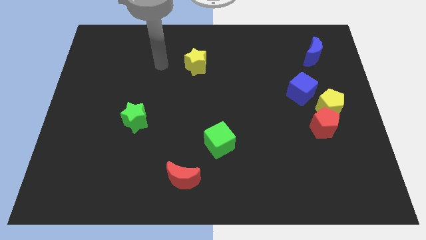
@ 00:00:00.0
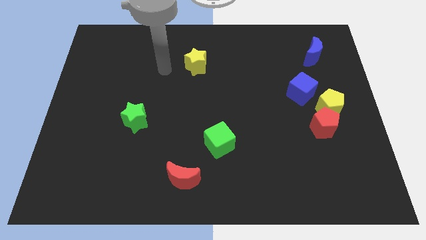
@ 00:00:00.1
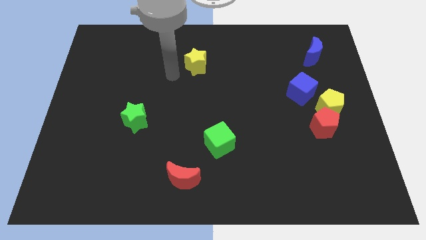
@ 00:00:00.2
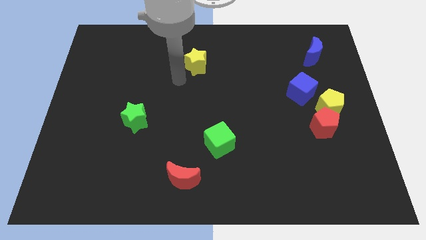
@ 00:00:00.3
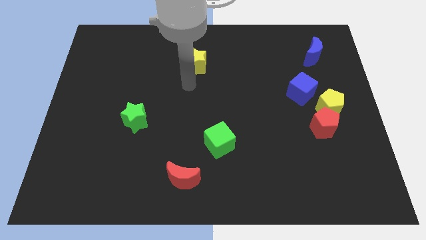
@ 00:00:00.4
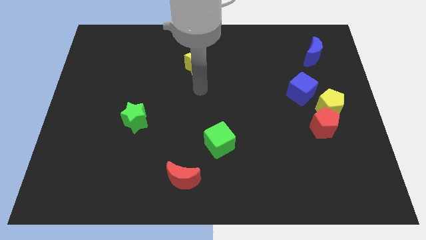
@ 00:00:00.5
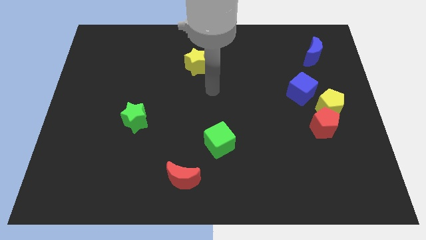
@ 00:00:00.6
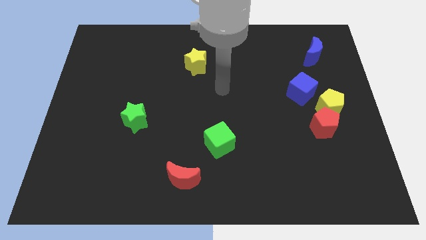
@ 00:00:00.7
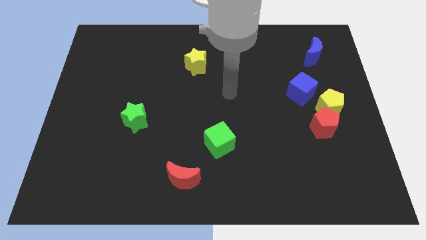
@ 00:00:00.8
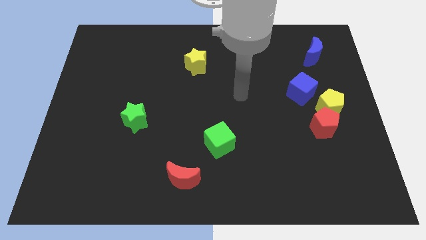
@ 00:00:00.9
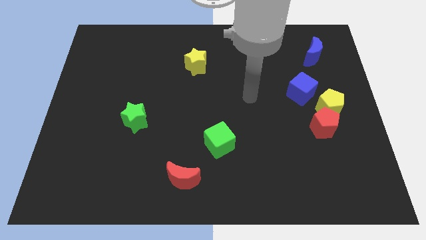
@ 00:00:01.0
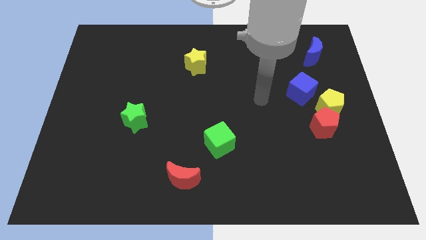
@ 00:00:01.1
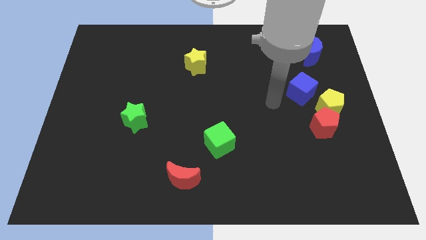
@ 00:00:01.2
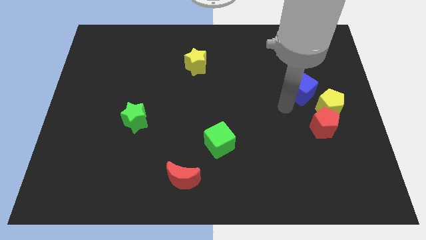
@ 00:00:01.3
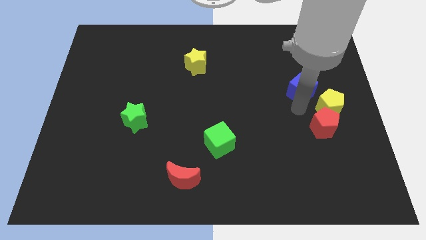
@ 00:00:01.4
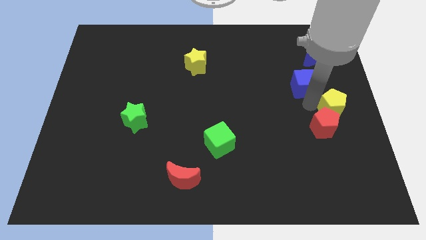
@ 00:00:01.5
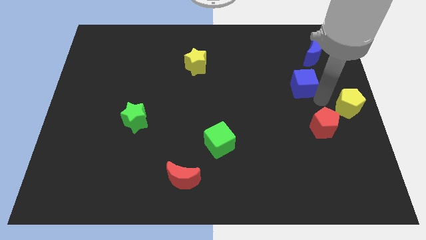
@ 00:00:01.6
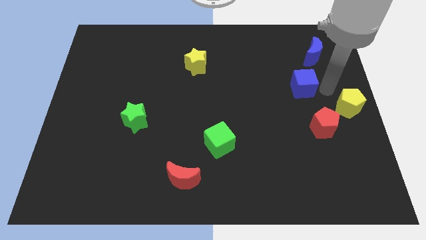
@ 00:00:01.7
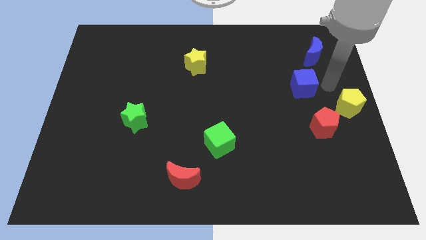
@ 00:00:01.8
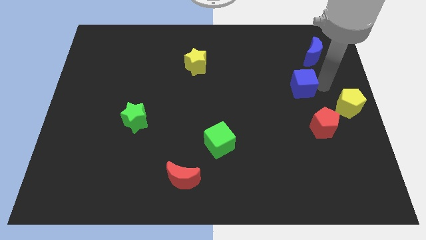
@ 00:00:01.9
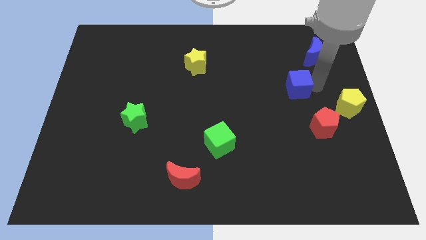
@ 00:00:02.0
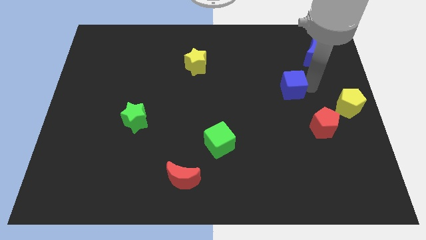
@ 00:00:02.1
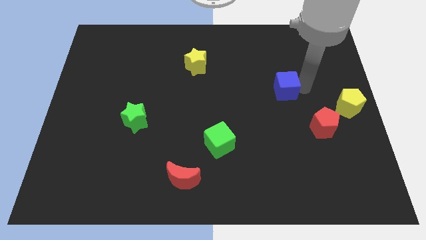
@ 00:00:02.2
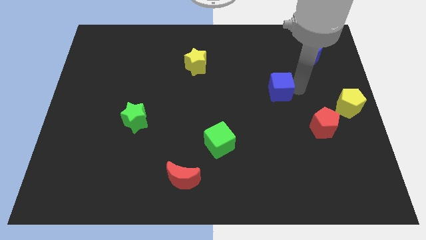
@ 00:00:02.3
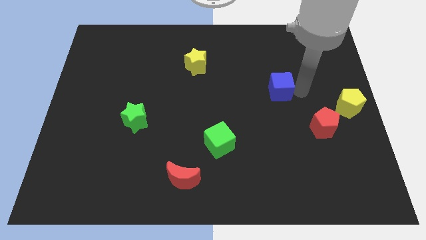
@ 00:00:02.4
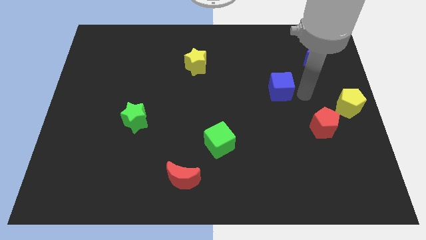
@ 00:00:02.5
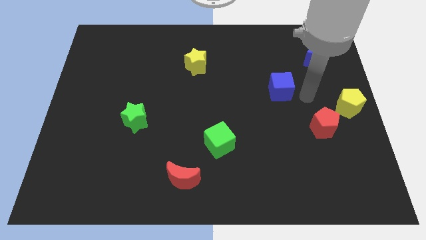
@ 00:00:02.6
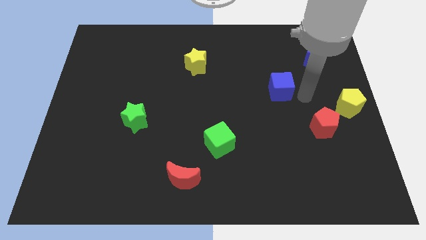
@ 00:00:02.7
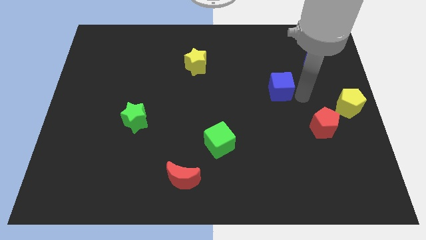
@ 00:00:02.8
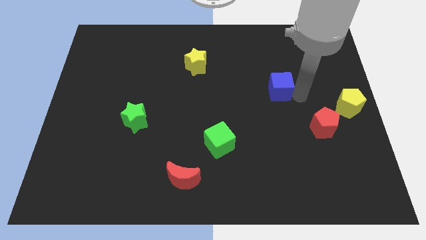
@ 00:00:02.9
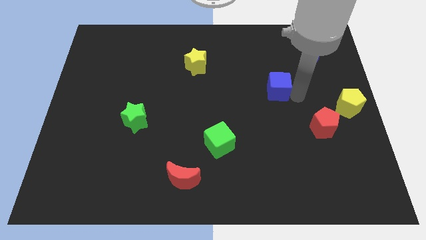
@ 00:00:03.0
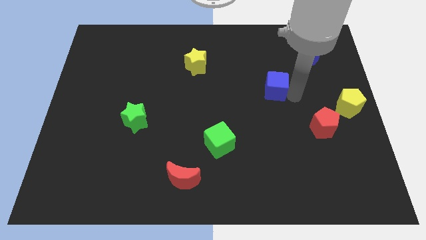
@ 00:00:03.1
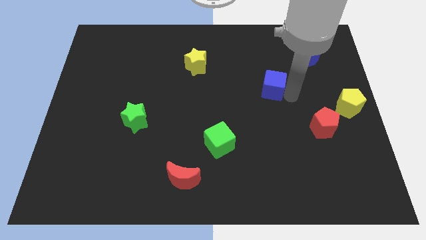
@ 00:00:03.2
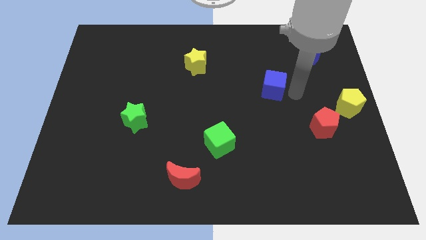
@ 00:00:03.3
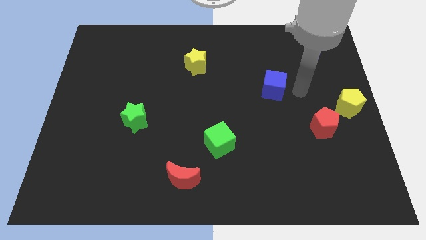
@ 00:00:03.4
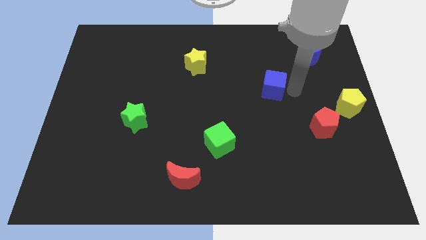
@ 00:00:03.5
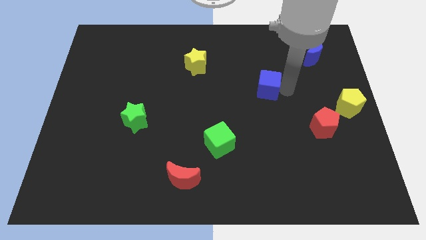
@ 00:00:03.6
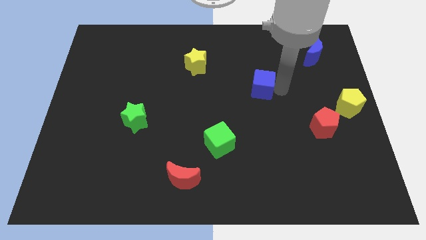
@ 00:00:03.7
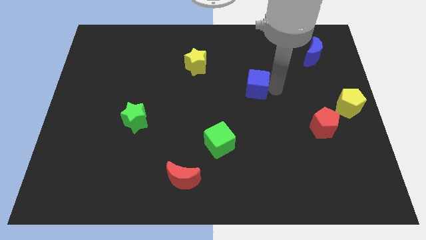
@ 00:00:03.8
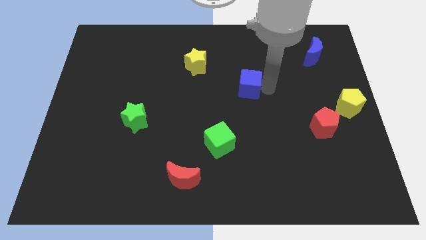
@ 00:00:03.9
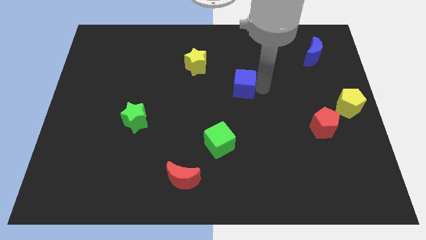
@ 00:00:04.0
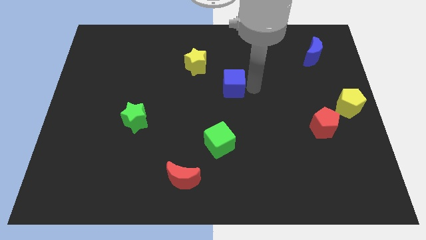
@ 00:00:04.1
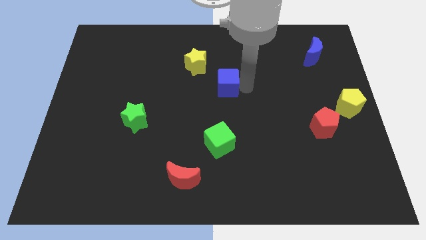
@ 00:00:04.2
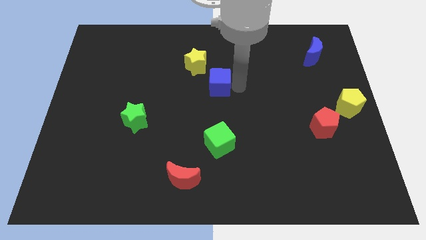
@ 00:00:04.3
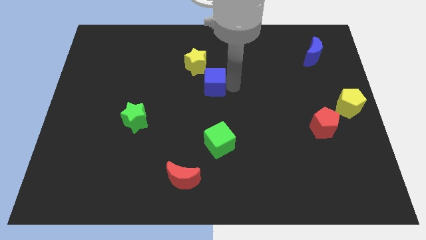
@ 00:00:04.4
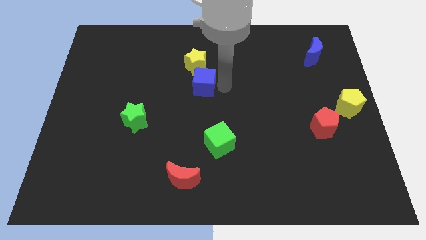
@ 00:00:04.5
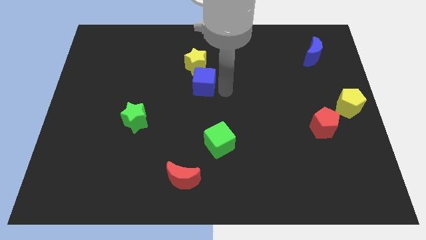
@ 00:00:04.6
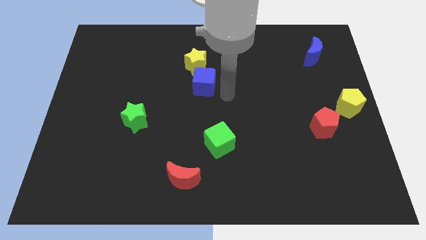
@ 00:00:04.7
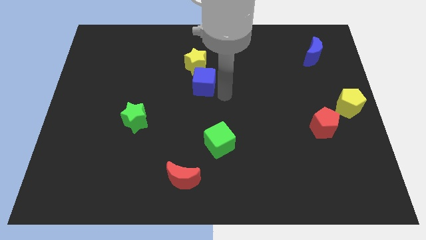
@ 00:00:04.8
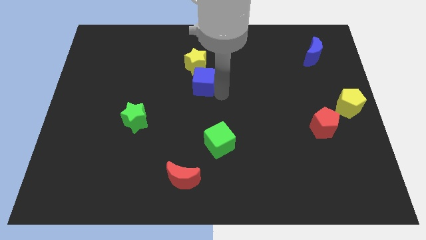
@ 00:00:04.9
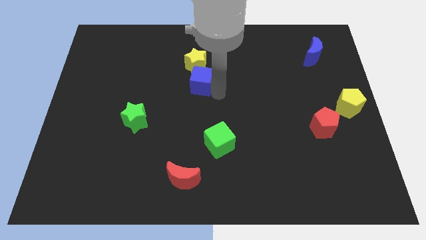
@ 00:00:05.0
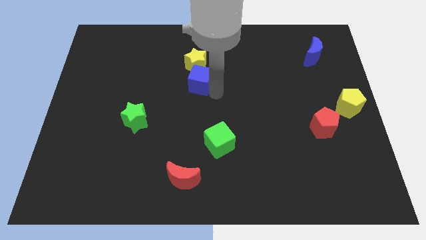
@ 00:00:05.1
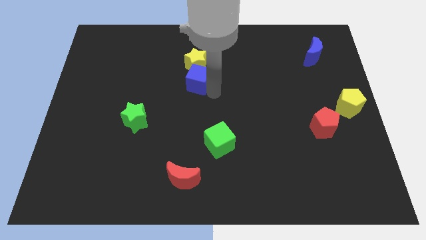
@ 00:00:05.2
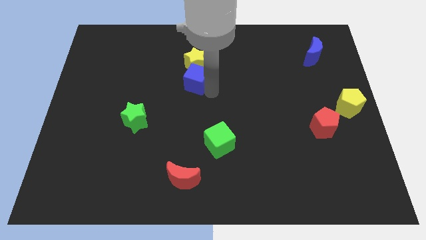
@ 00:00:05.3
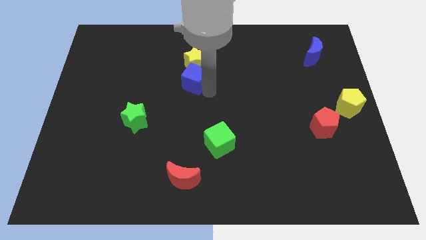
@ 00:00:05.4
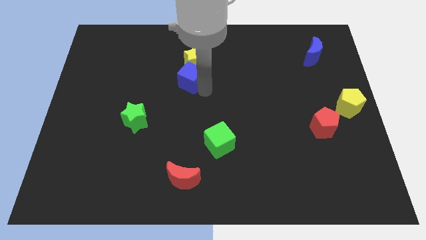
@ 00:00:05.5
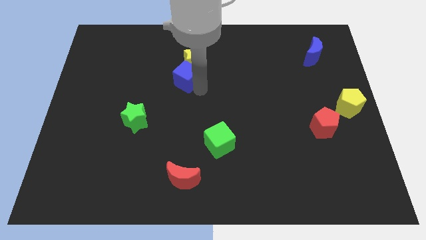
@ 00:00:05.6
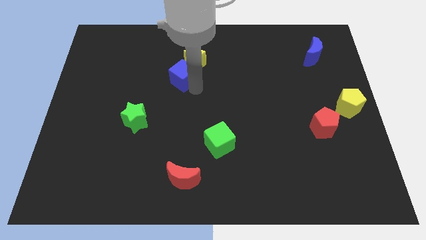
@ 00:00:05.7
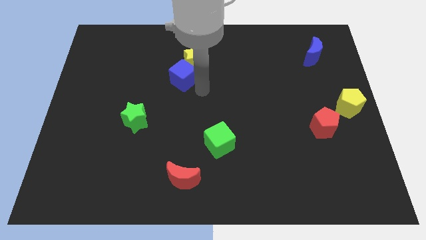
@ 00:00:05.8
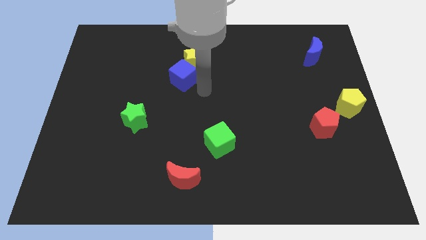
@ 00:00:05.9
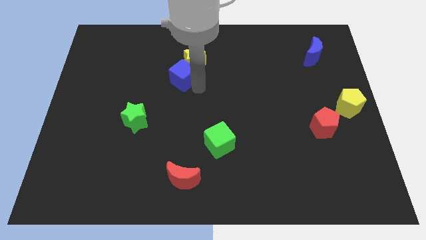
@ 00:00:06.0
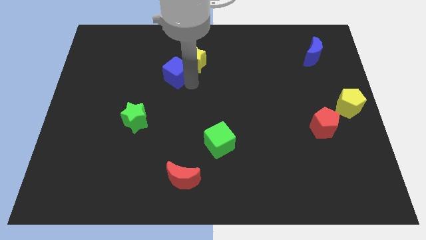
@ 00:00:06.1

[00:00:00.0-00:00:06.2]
put the blue cube to the left of the yellow star

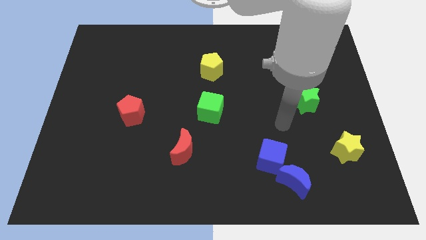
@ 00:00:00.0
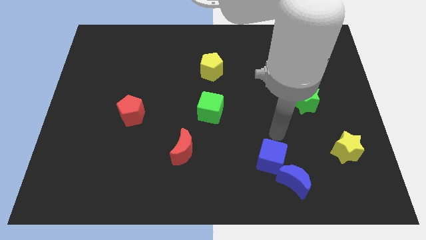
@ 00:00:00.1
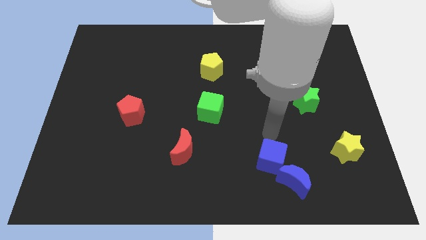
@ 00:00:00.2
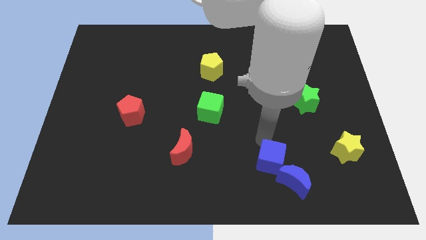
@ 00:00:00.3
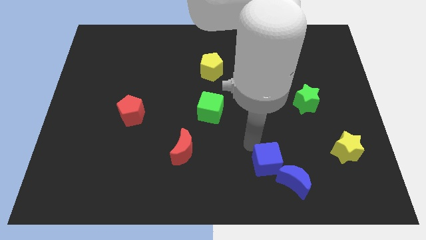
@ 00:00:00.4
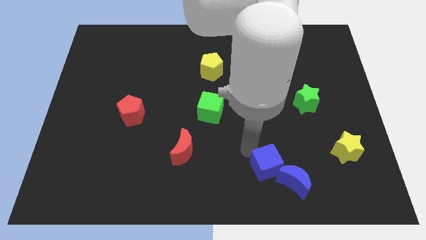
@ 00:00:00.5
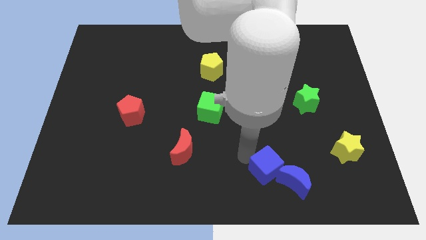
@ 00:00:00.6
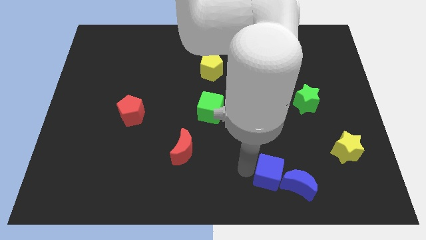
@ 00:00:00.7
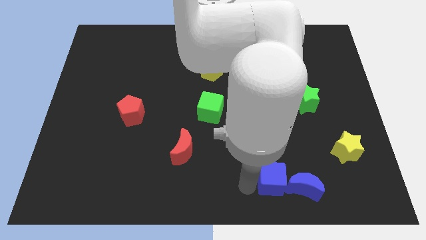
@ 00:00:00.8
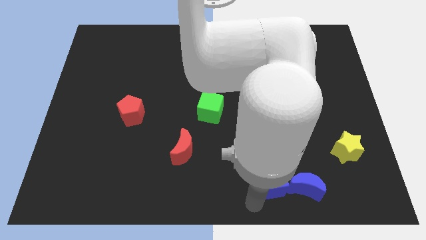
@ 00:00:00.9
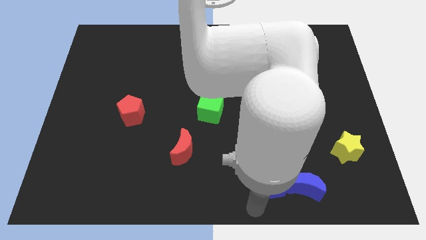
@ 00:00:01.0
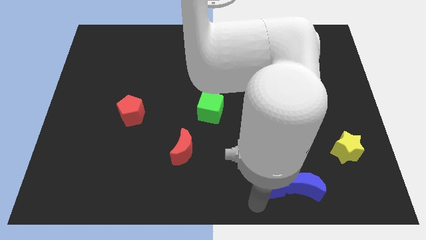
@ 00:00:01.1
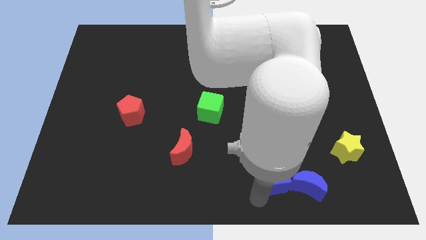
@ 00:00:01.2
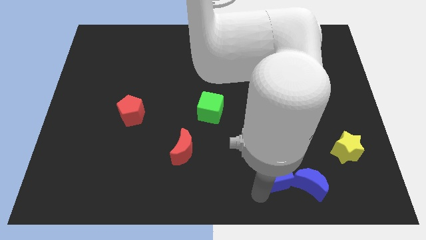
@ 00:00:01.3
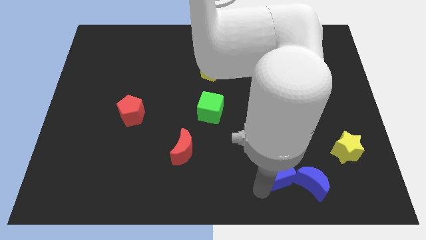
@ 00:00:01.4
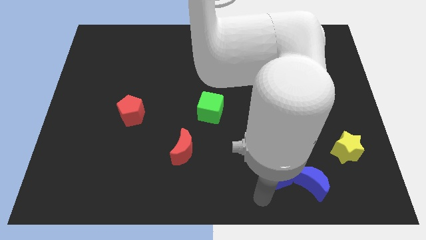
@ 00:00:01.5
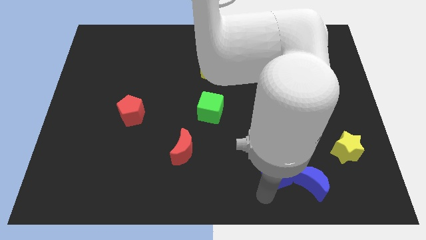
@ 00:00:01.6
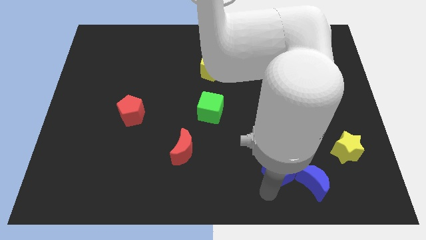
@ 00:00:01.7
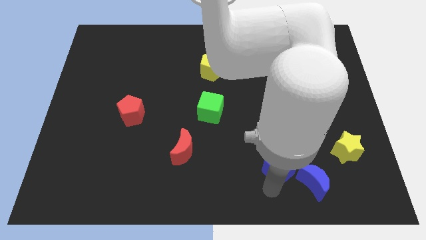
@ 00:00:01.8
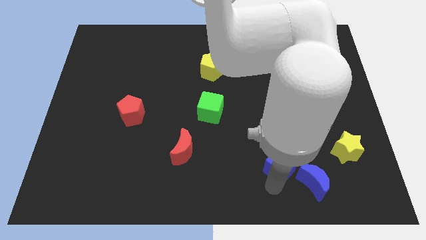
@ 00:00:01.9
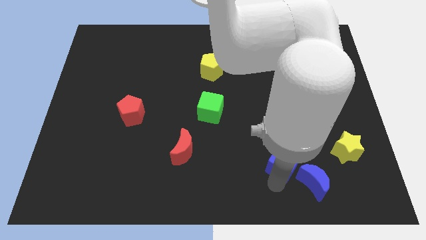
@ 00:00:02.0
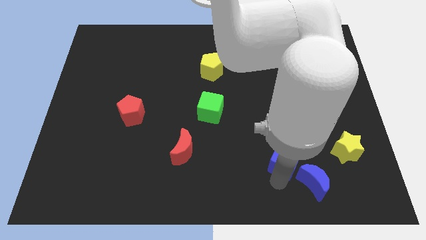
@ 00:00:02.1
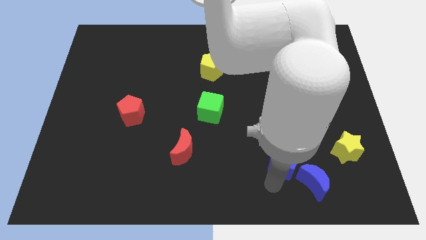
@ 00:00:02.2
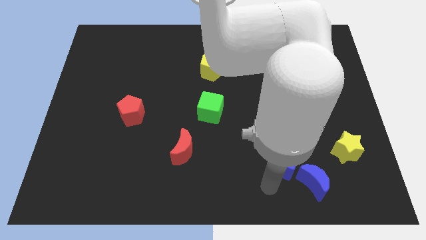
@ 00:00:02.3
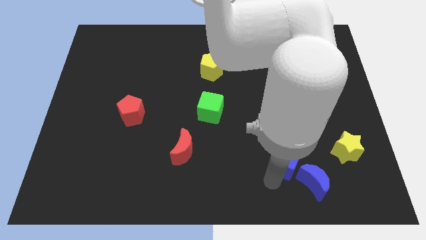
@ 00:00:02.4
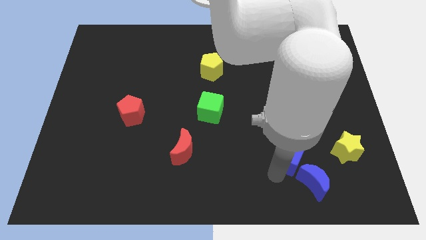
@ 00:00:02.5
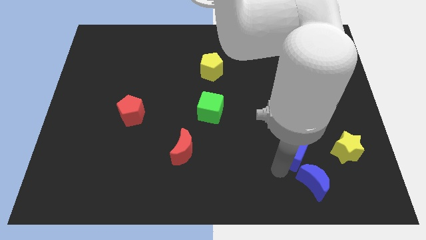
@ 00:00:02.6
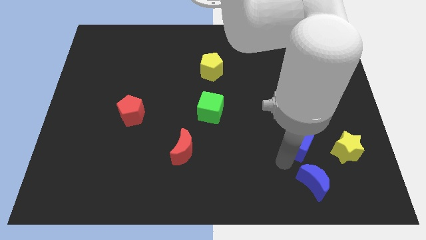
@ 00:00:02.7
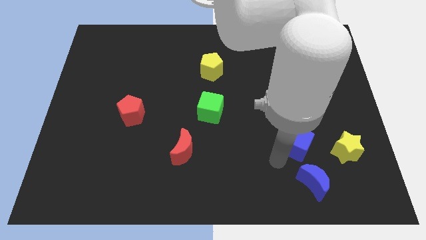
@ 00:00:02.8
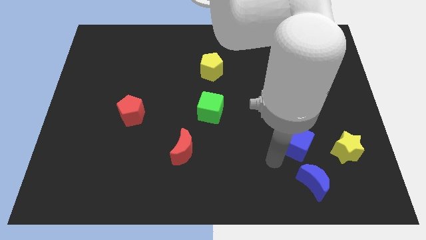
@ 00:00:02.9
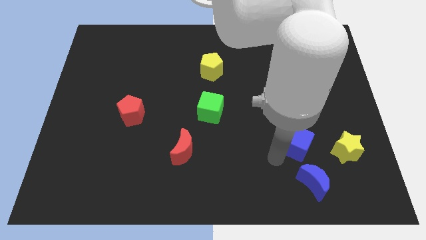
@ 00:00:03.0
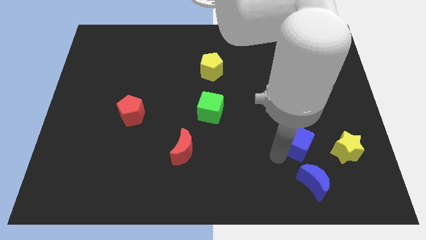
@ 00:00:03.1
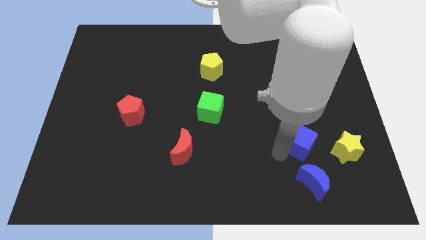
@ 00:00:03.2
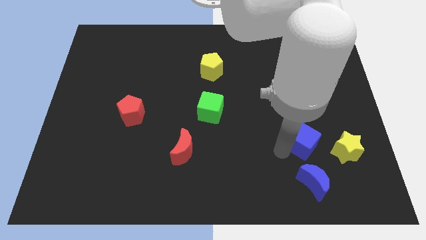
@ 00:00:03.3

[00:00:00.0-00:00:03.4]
put the blue cube to the top left of the yellow star
